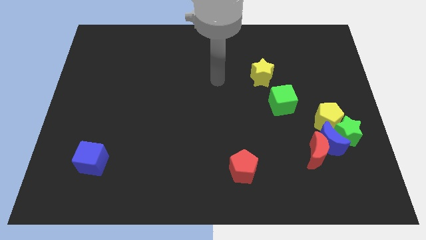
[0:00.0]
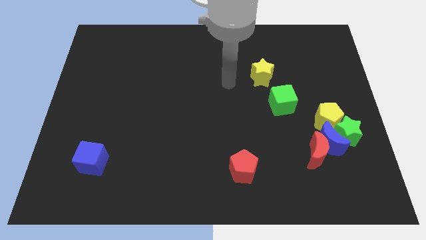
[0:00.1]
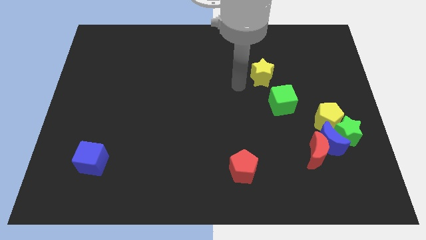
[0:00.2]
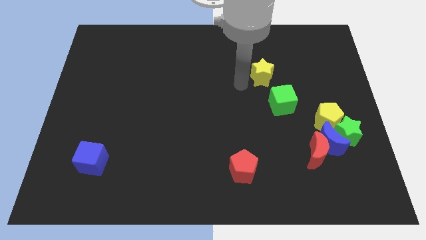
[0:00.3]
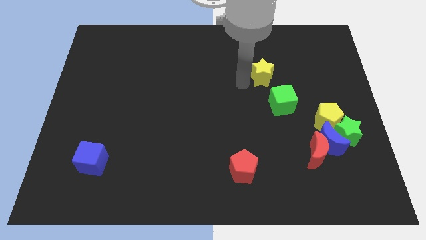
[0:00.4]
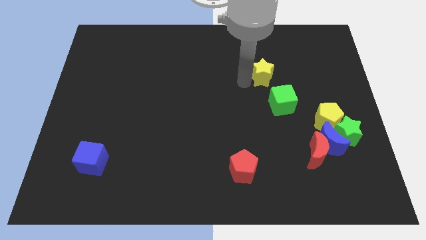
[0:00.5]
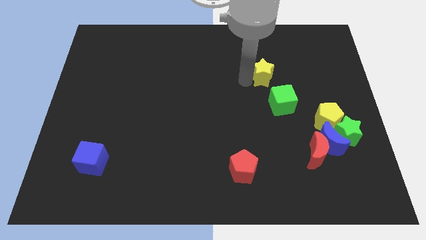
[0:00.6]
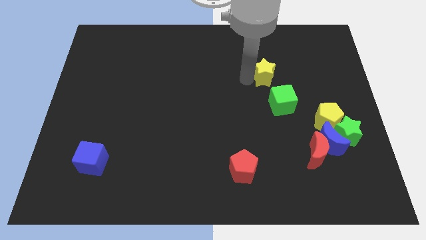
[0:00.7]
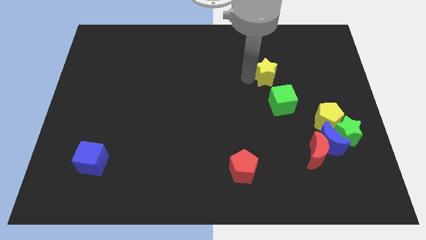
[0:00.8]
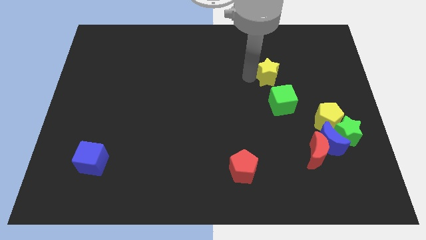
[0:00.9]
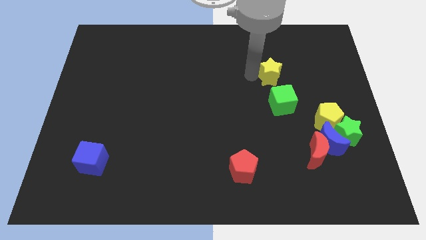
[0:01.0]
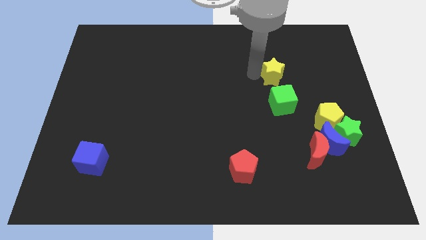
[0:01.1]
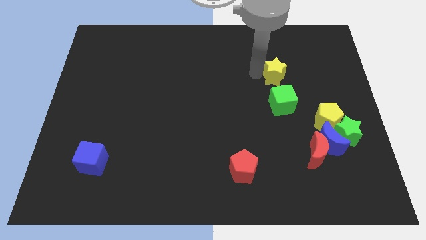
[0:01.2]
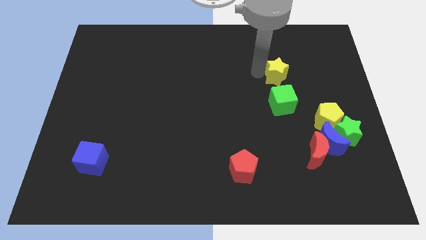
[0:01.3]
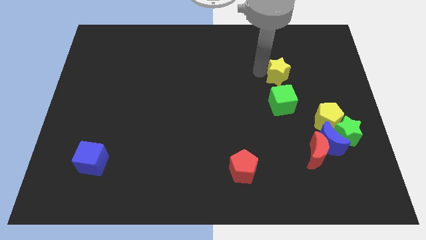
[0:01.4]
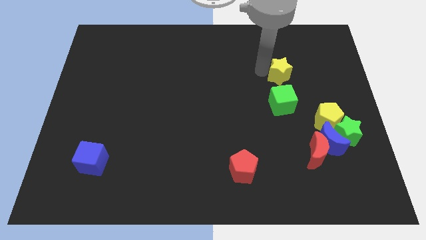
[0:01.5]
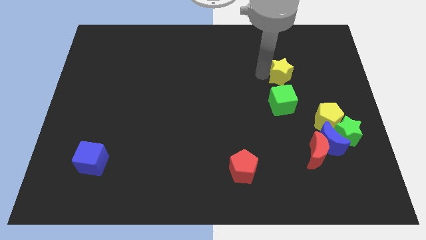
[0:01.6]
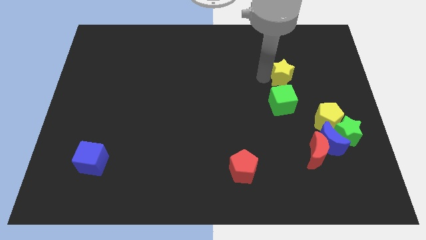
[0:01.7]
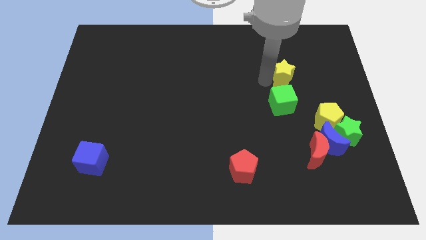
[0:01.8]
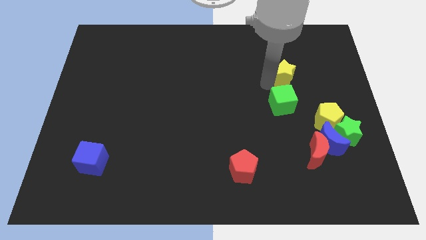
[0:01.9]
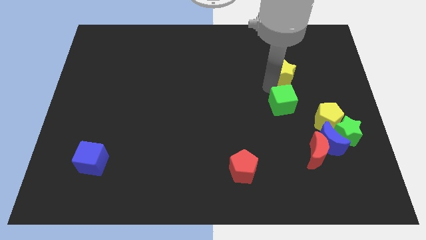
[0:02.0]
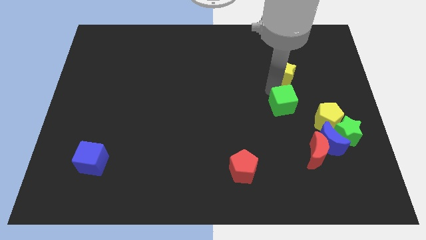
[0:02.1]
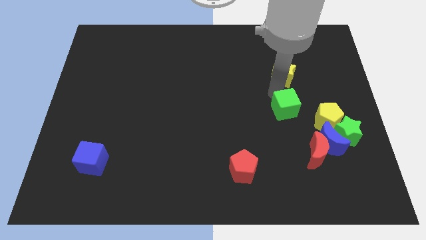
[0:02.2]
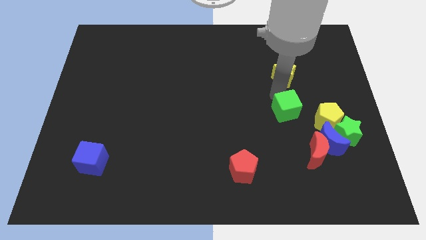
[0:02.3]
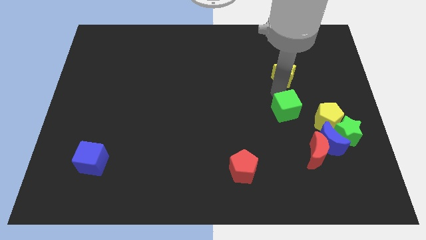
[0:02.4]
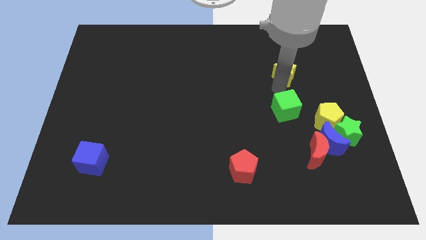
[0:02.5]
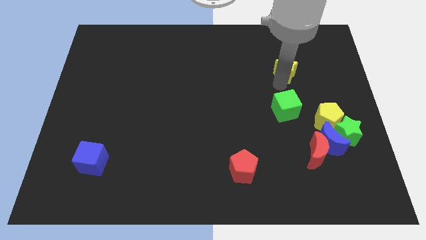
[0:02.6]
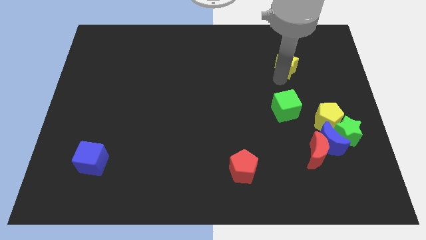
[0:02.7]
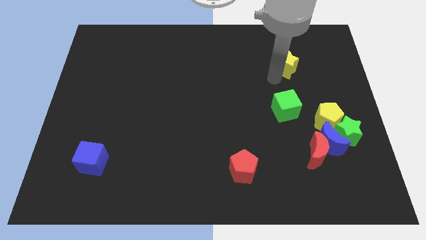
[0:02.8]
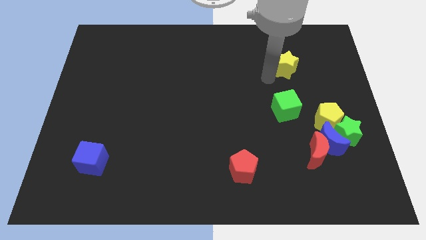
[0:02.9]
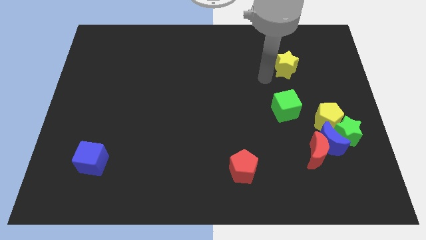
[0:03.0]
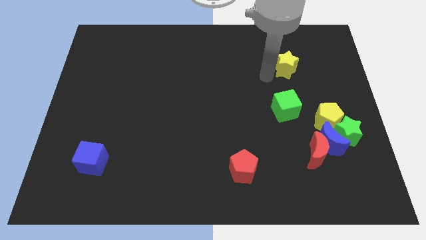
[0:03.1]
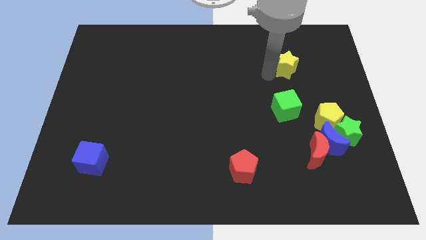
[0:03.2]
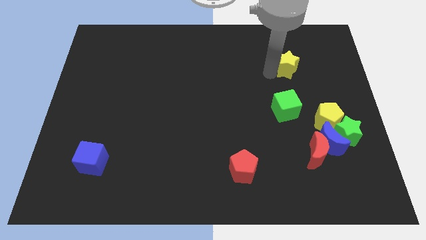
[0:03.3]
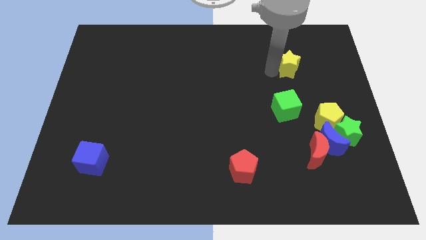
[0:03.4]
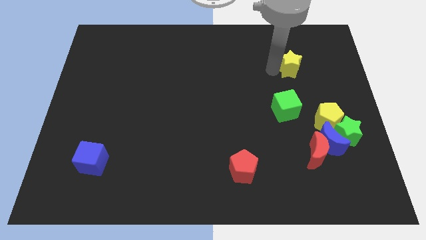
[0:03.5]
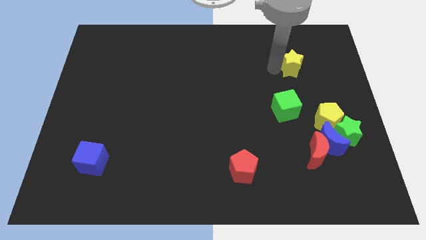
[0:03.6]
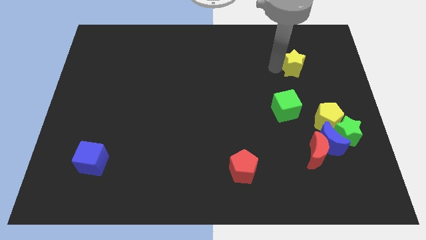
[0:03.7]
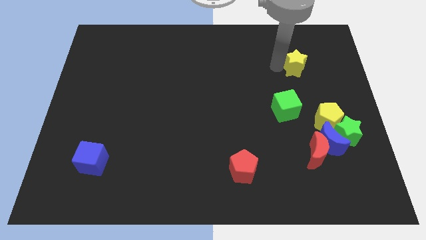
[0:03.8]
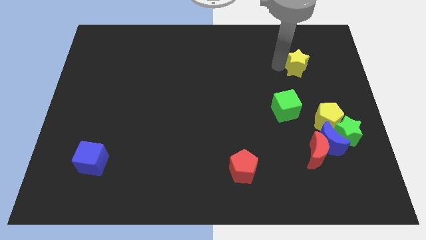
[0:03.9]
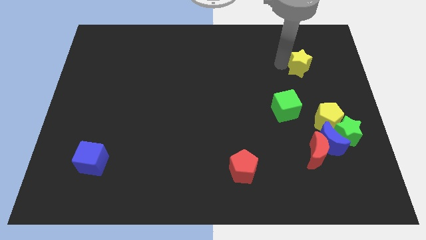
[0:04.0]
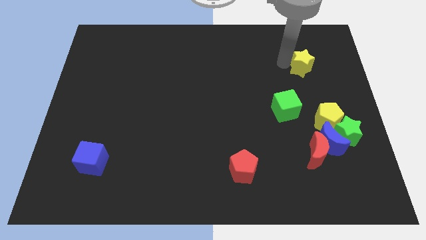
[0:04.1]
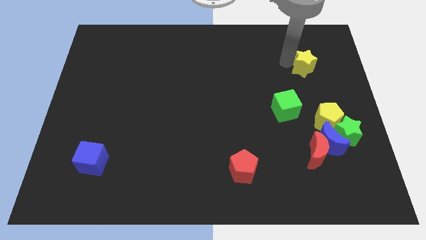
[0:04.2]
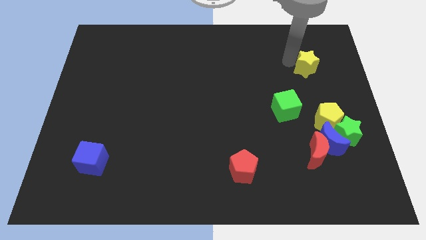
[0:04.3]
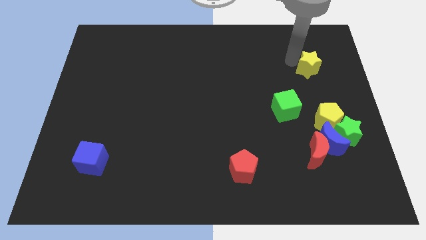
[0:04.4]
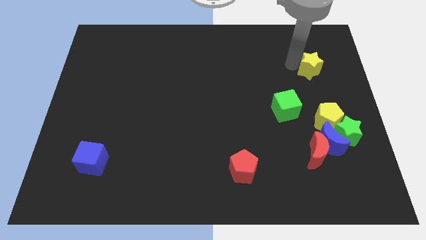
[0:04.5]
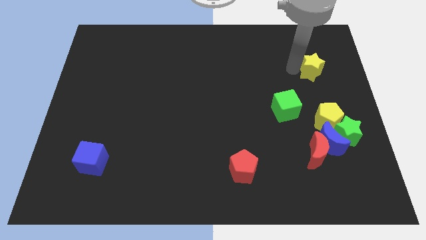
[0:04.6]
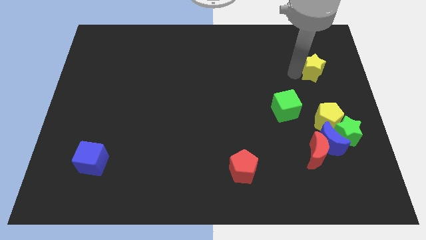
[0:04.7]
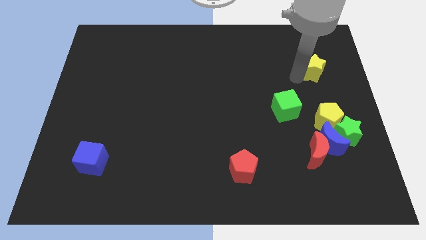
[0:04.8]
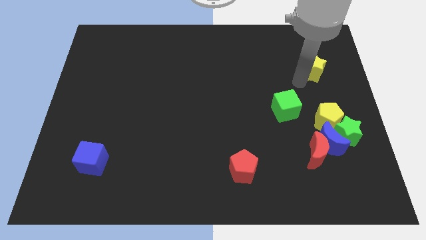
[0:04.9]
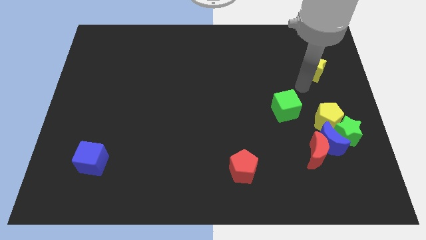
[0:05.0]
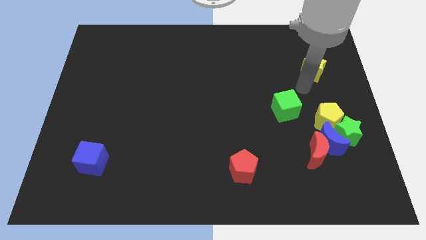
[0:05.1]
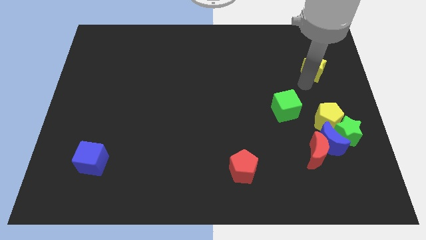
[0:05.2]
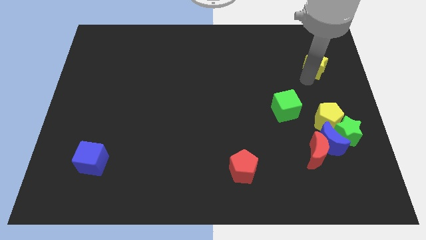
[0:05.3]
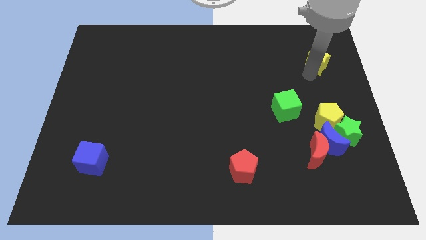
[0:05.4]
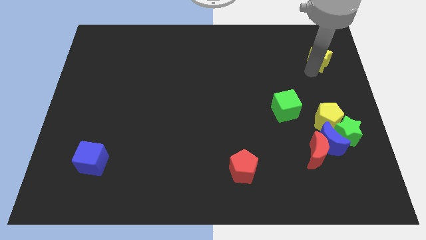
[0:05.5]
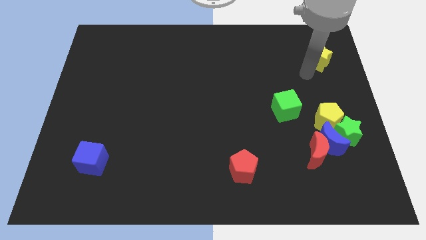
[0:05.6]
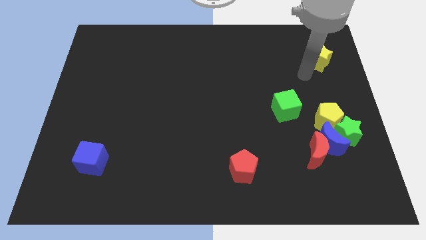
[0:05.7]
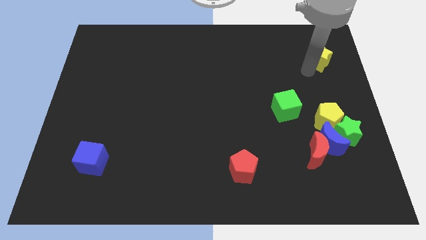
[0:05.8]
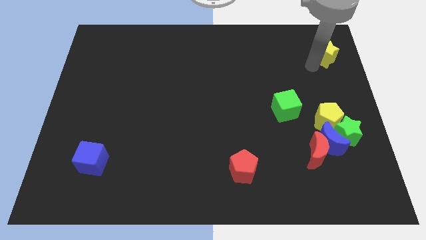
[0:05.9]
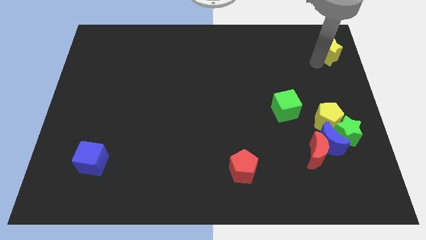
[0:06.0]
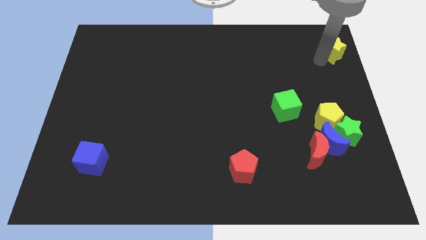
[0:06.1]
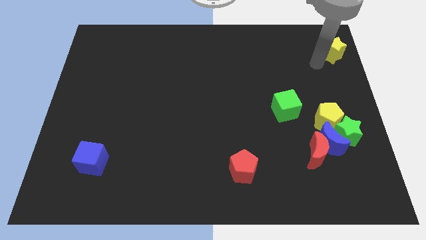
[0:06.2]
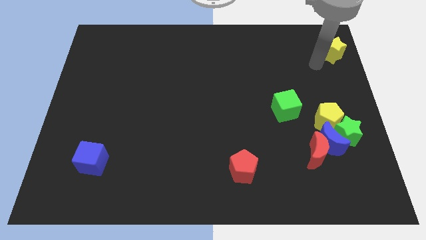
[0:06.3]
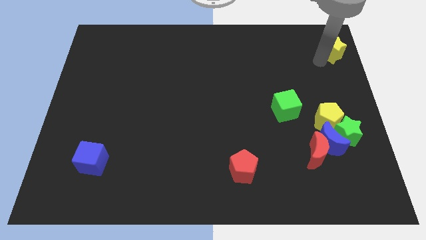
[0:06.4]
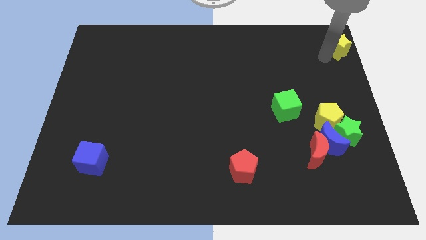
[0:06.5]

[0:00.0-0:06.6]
put the yellow star to the top right corner

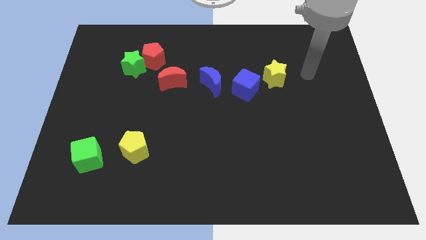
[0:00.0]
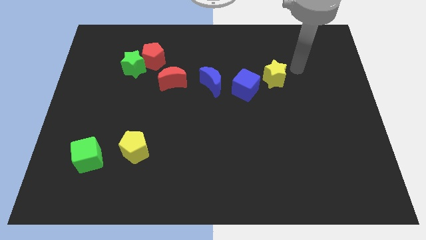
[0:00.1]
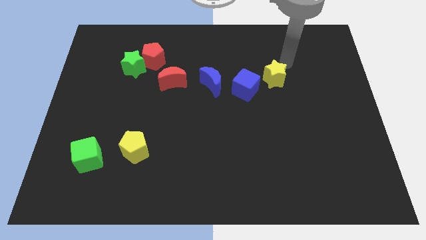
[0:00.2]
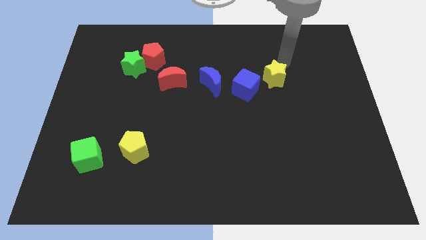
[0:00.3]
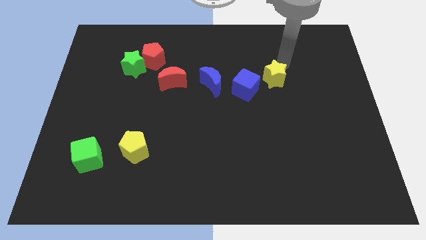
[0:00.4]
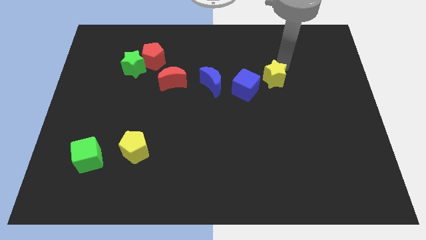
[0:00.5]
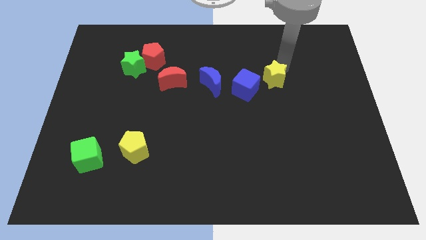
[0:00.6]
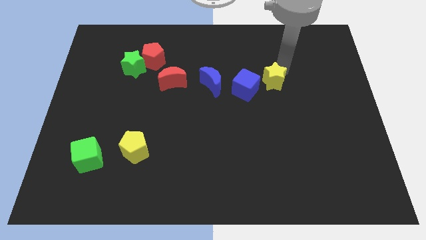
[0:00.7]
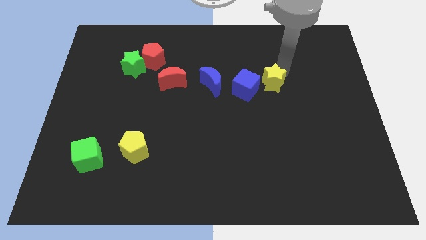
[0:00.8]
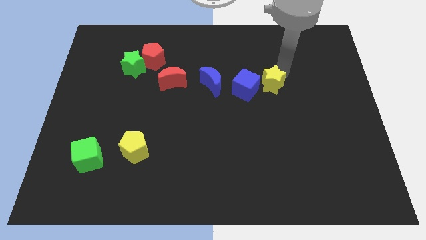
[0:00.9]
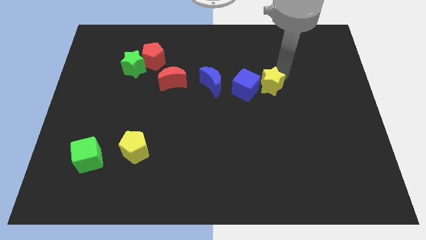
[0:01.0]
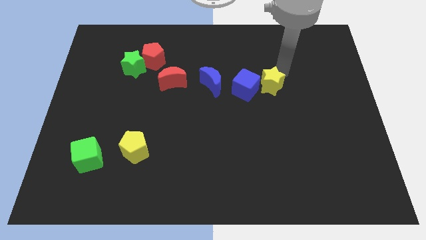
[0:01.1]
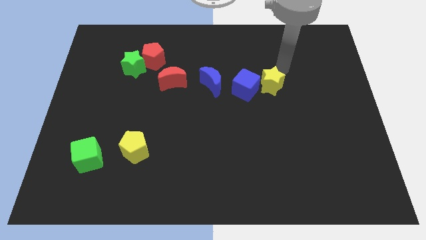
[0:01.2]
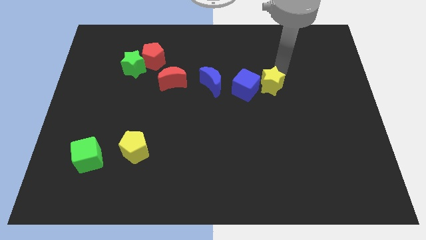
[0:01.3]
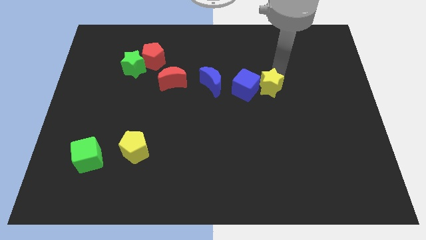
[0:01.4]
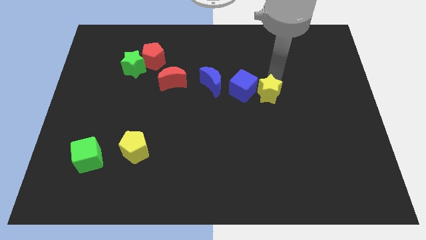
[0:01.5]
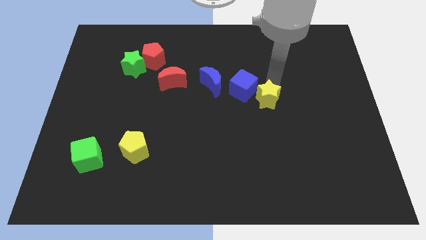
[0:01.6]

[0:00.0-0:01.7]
push the yellow star to the middle
